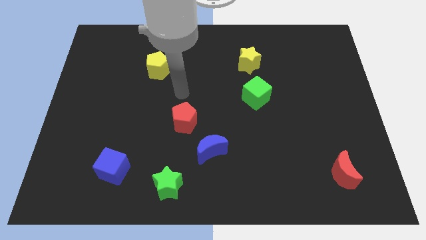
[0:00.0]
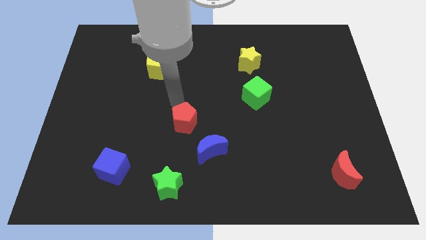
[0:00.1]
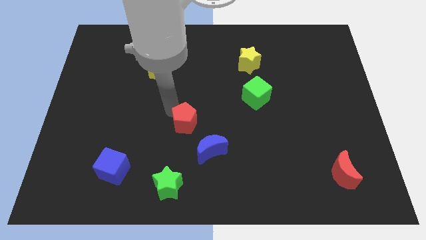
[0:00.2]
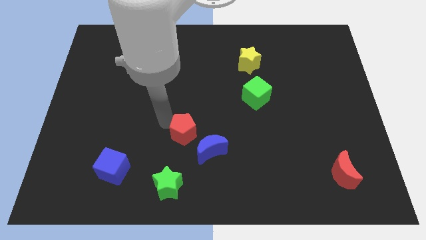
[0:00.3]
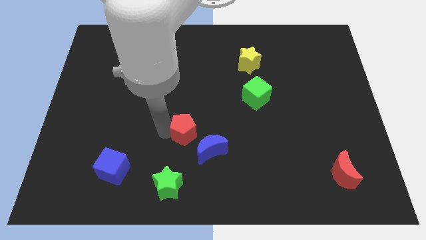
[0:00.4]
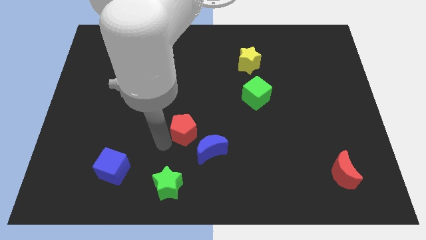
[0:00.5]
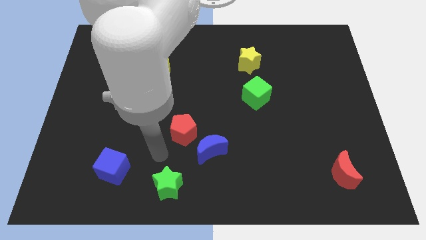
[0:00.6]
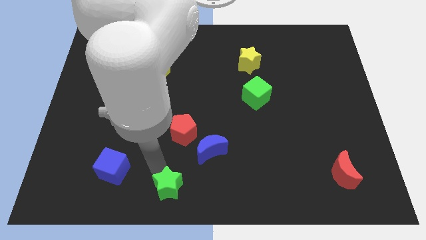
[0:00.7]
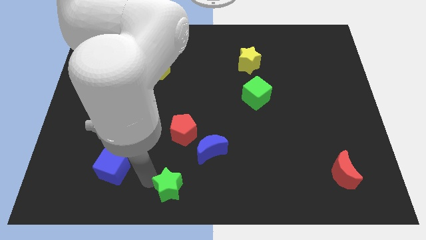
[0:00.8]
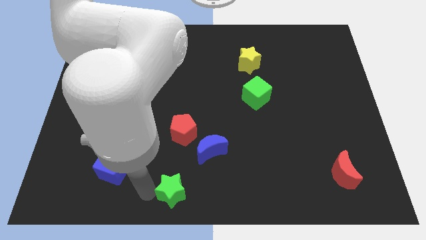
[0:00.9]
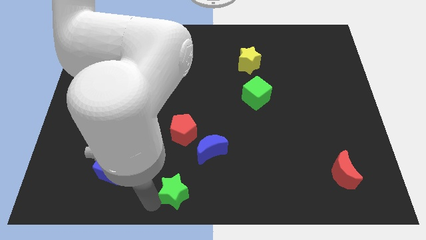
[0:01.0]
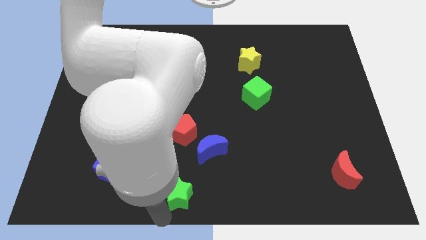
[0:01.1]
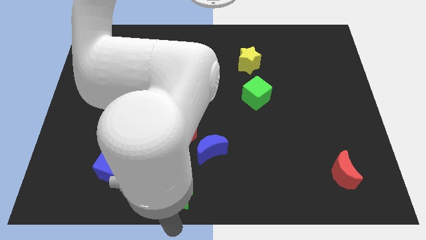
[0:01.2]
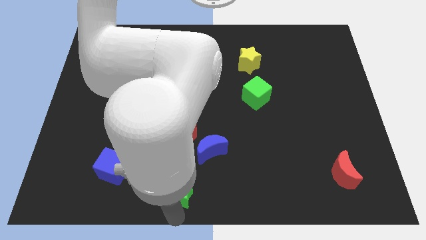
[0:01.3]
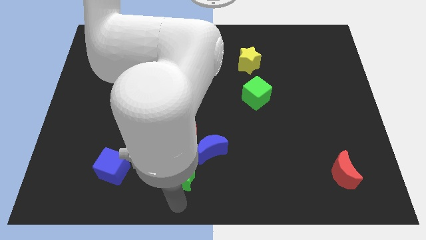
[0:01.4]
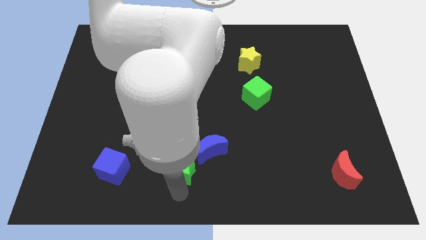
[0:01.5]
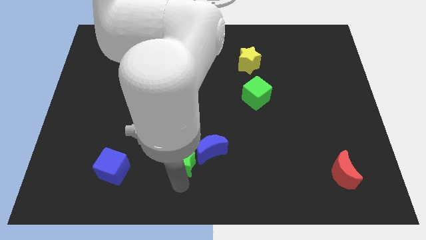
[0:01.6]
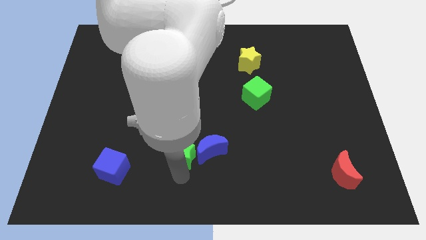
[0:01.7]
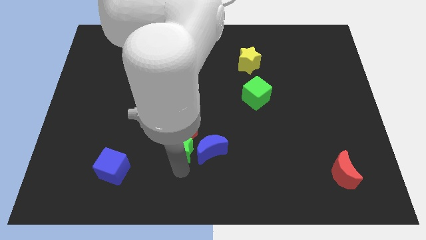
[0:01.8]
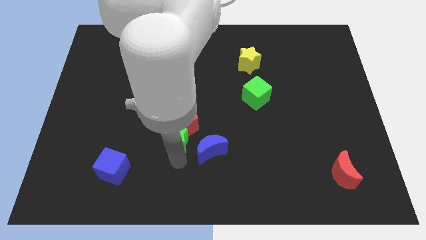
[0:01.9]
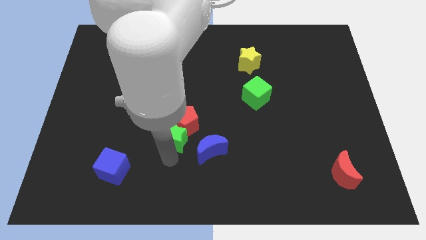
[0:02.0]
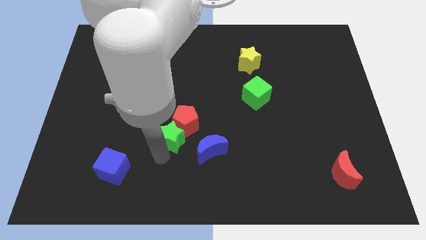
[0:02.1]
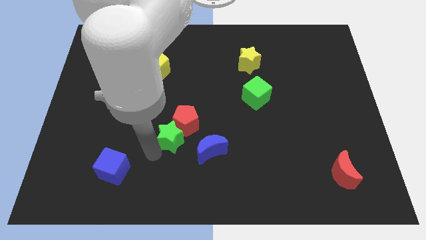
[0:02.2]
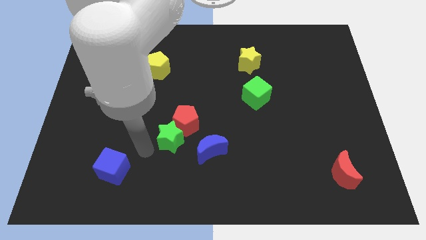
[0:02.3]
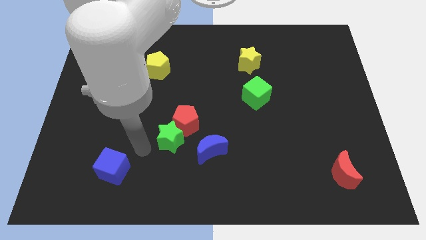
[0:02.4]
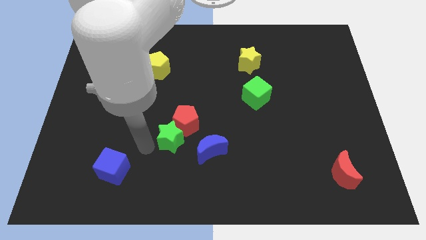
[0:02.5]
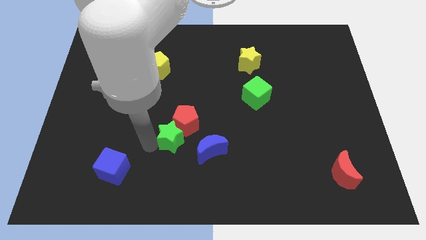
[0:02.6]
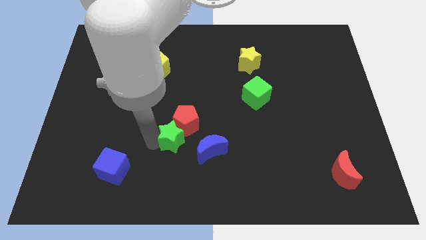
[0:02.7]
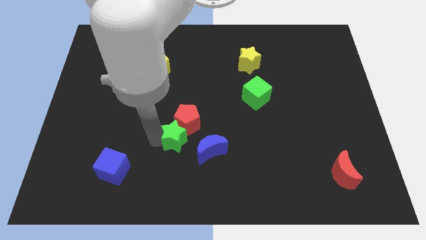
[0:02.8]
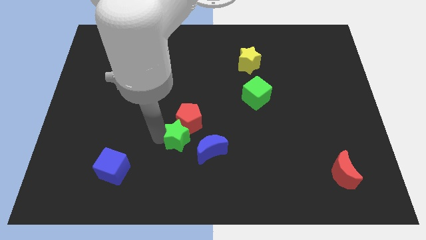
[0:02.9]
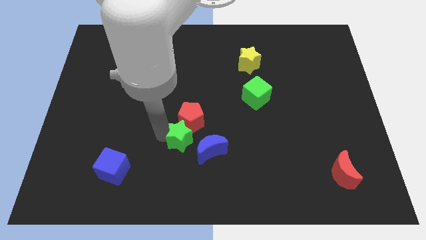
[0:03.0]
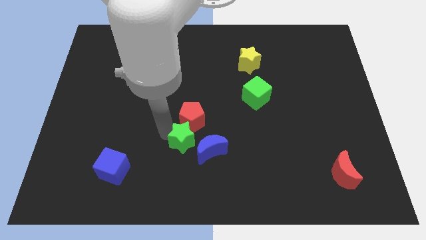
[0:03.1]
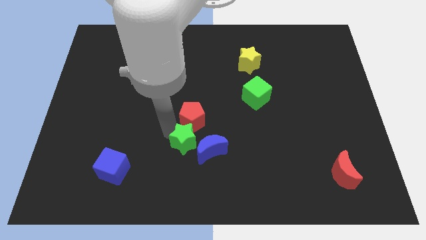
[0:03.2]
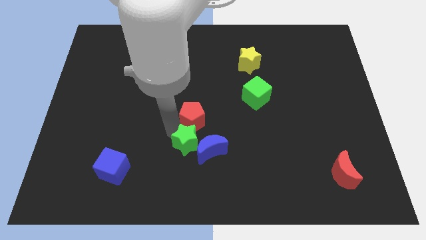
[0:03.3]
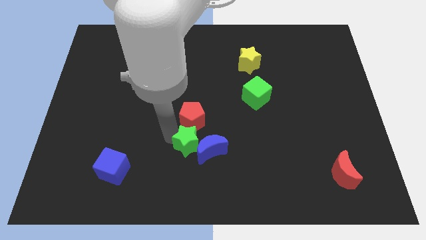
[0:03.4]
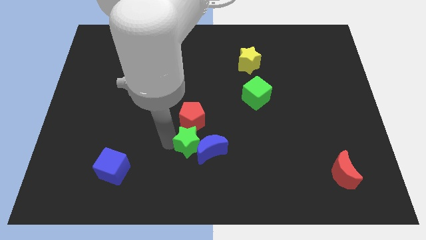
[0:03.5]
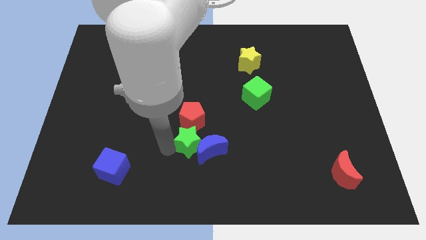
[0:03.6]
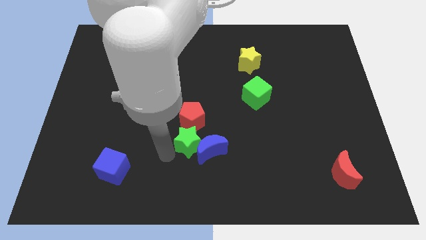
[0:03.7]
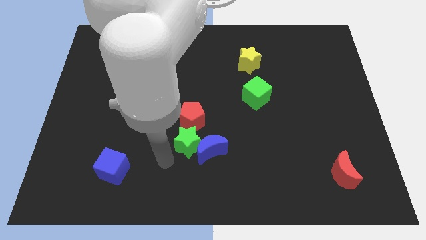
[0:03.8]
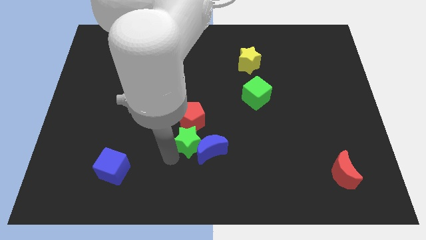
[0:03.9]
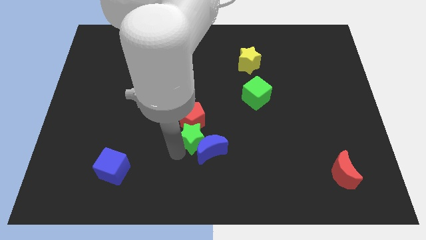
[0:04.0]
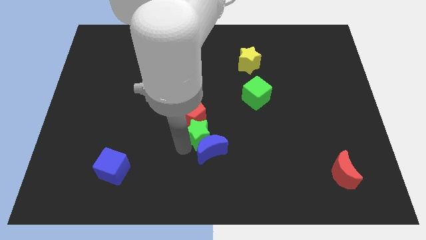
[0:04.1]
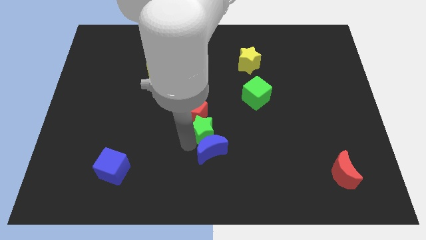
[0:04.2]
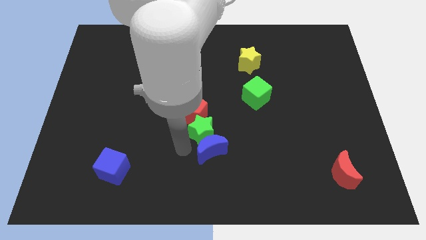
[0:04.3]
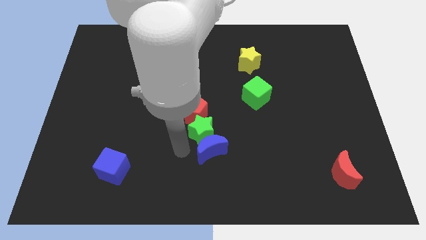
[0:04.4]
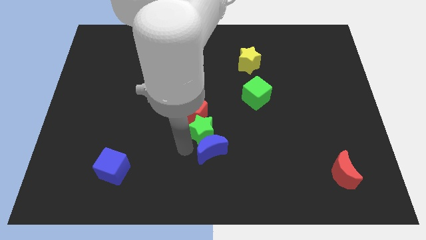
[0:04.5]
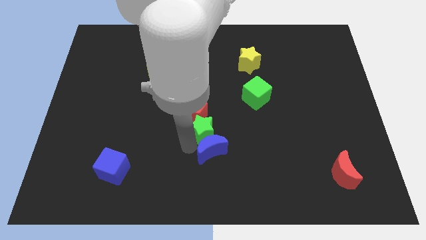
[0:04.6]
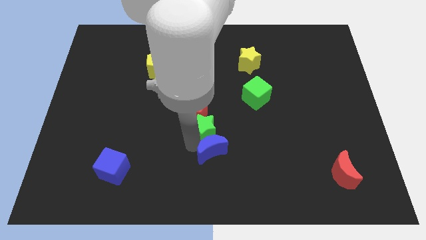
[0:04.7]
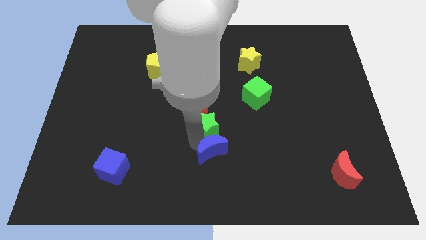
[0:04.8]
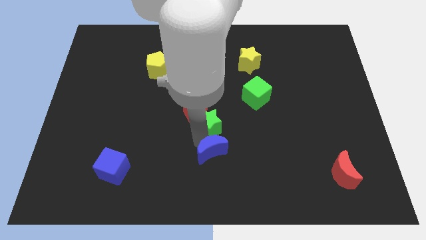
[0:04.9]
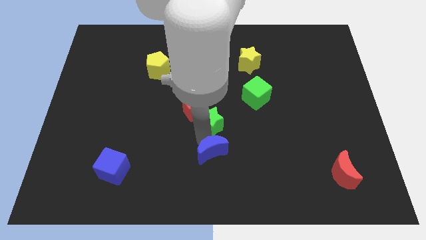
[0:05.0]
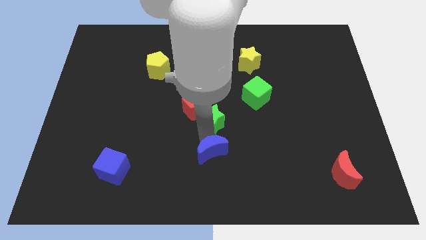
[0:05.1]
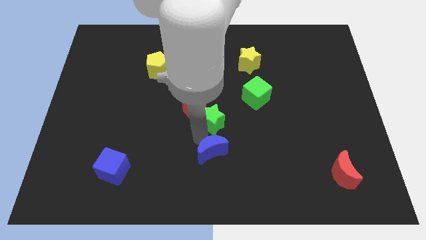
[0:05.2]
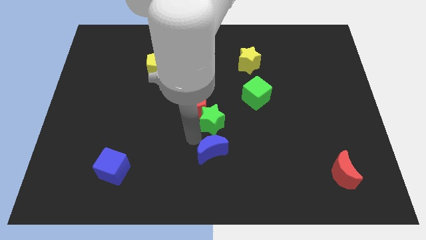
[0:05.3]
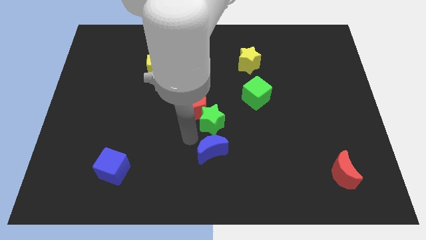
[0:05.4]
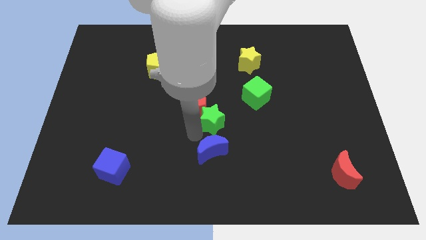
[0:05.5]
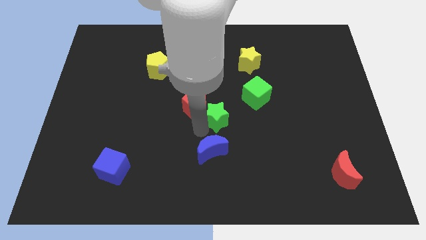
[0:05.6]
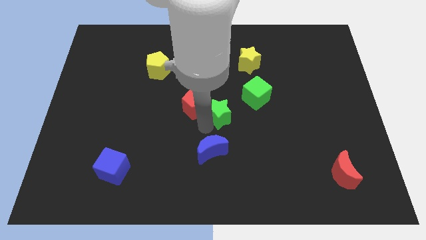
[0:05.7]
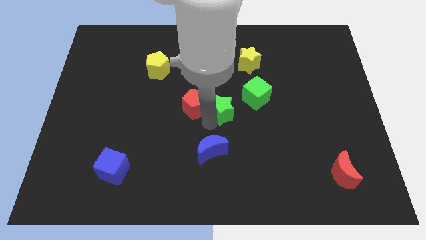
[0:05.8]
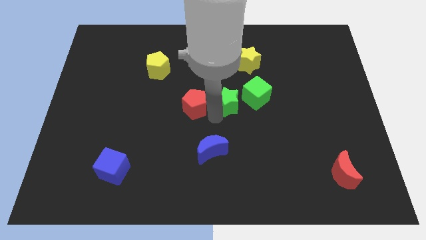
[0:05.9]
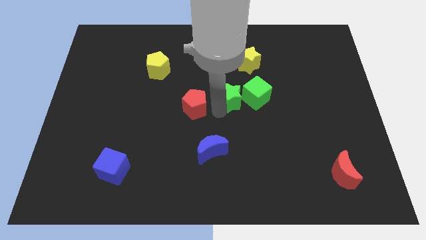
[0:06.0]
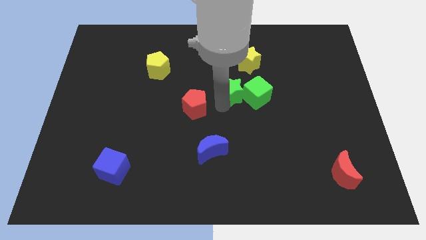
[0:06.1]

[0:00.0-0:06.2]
move the green star to the green cube

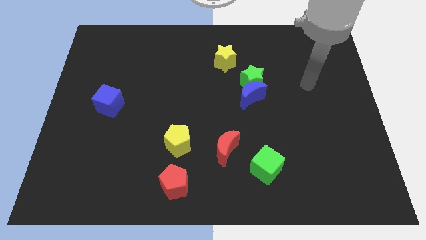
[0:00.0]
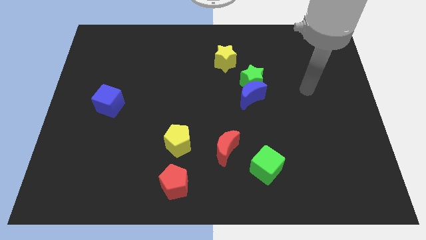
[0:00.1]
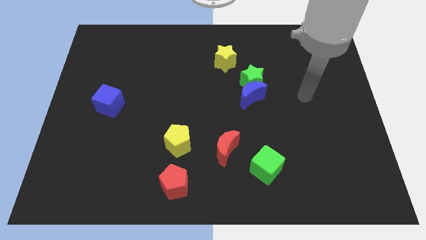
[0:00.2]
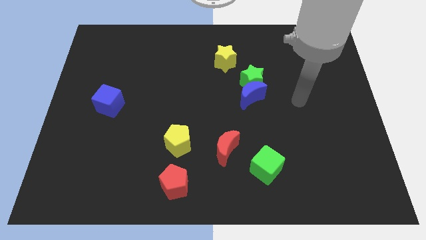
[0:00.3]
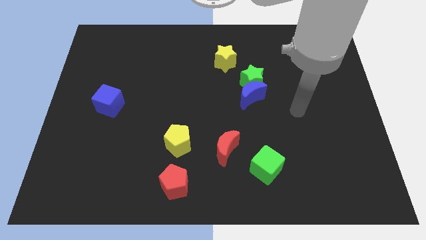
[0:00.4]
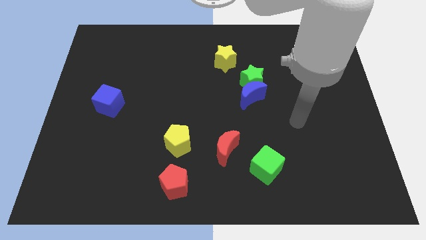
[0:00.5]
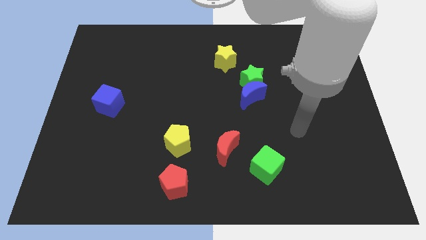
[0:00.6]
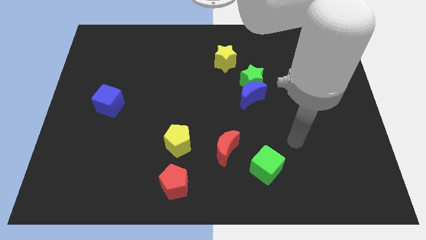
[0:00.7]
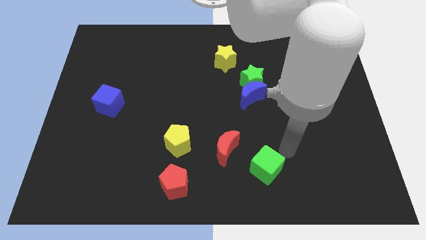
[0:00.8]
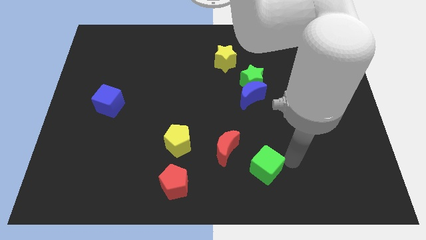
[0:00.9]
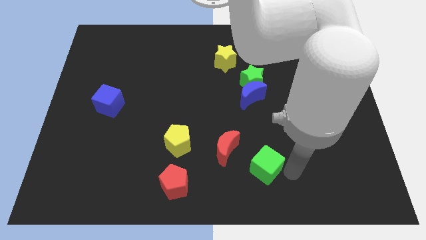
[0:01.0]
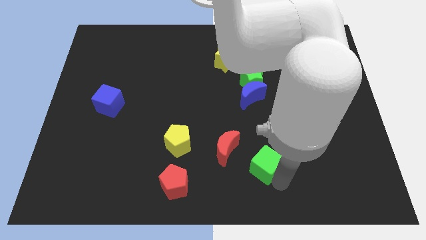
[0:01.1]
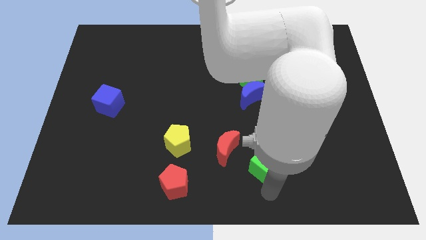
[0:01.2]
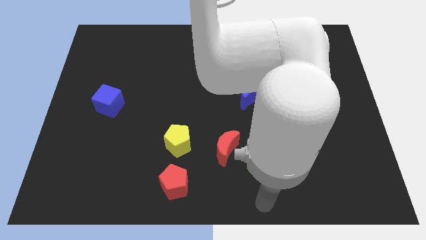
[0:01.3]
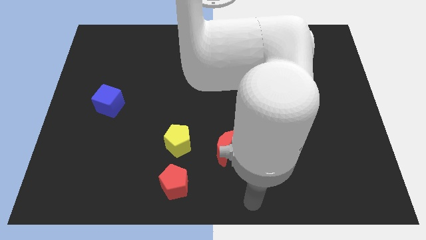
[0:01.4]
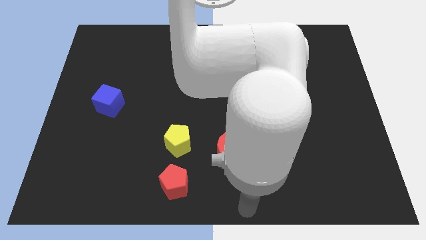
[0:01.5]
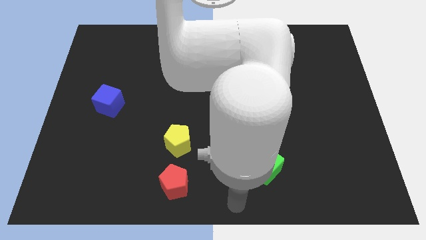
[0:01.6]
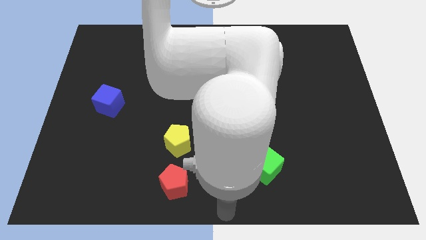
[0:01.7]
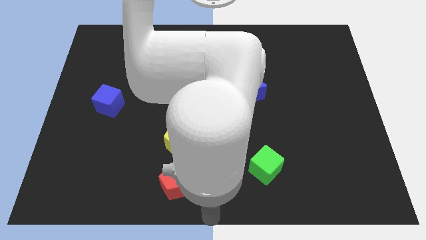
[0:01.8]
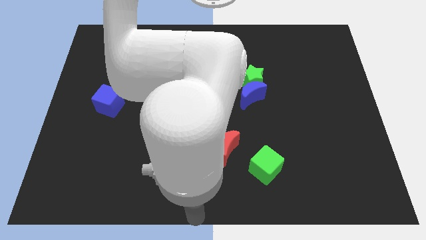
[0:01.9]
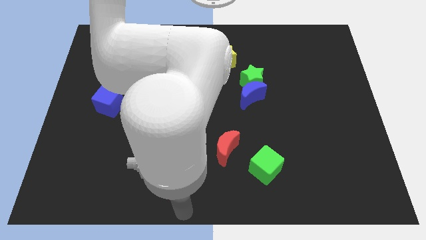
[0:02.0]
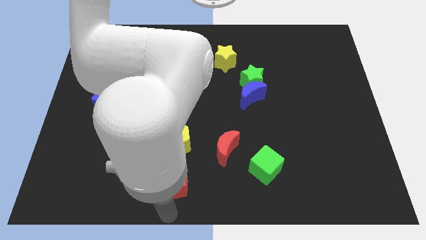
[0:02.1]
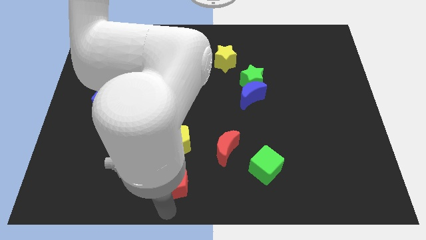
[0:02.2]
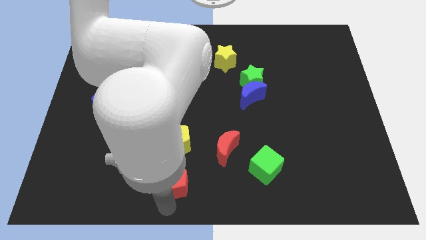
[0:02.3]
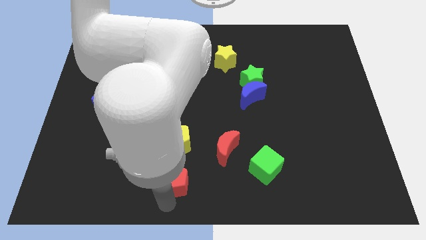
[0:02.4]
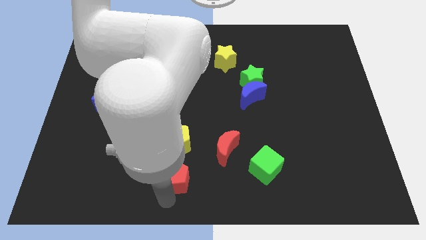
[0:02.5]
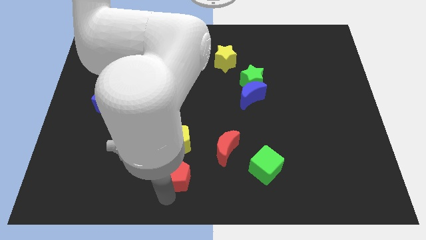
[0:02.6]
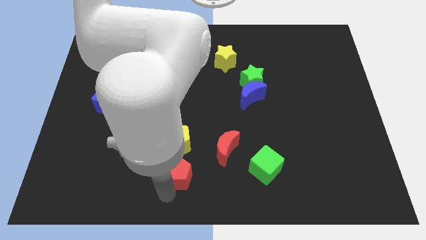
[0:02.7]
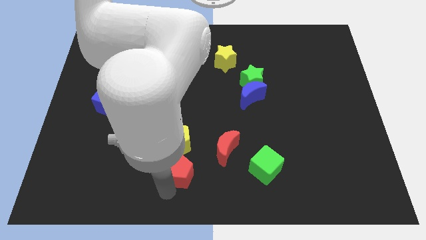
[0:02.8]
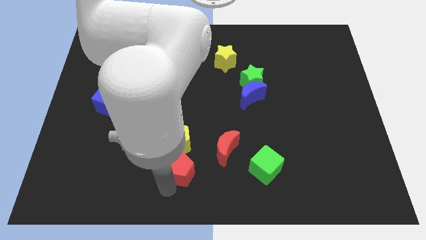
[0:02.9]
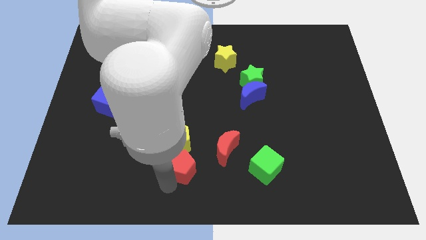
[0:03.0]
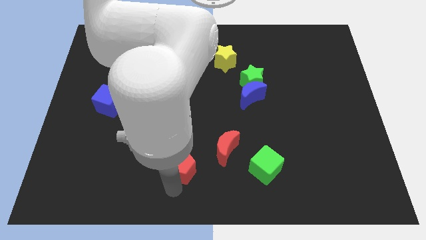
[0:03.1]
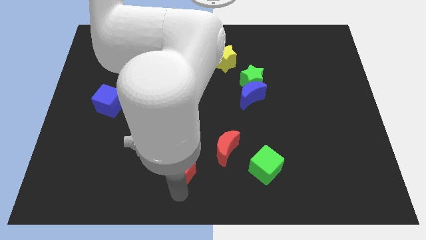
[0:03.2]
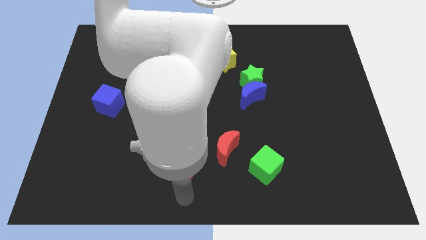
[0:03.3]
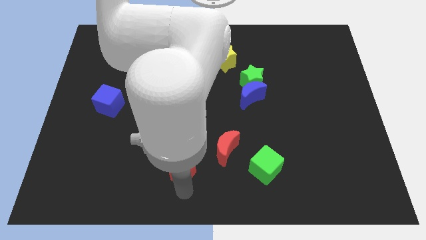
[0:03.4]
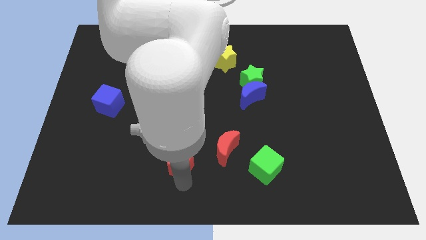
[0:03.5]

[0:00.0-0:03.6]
move the red pentagon next to the yellow pentagon
